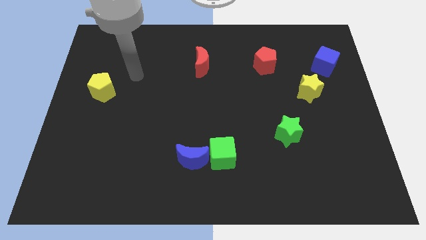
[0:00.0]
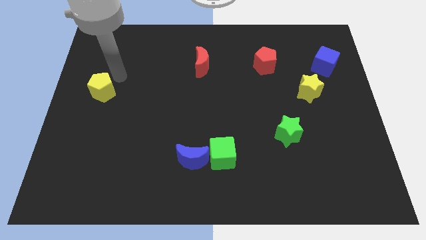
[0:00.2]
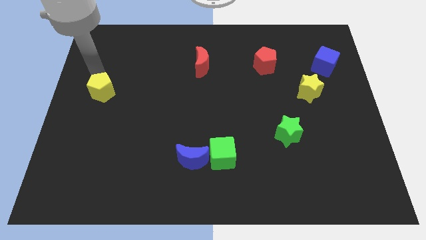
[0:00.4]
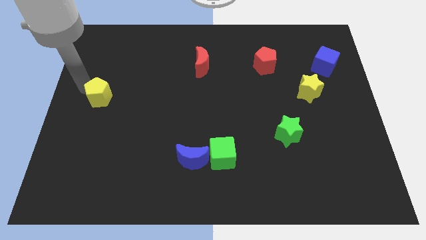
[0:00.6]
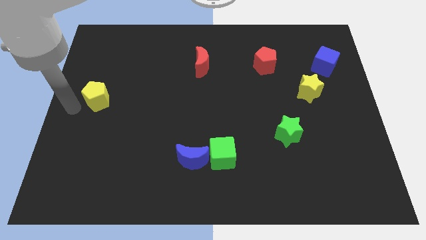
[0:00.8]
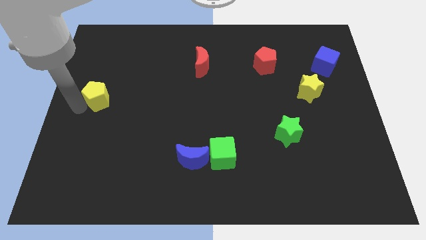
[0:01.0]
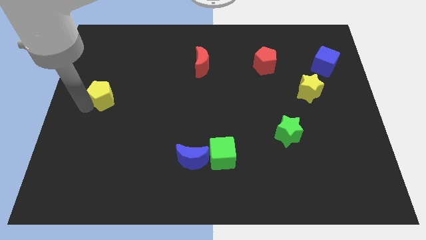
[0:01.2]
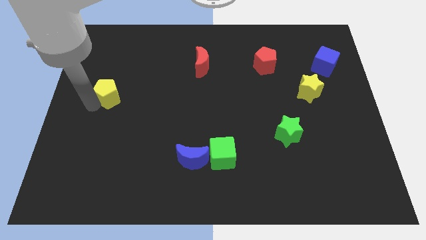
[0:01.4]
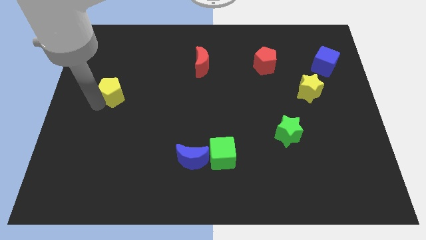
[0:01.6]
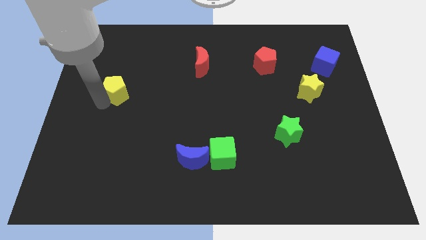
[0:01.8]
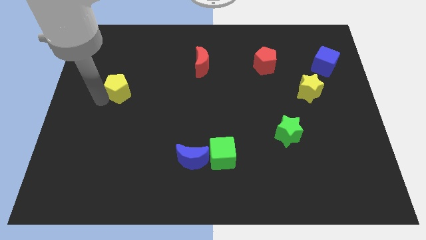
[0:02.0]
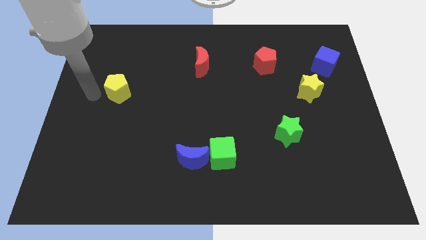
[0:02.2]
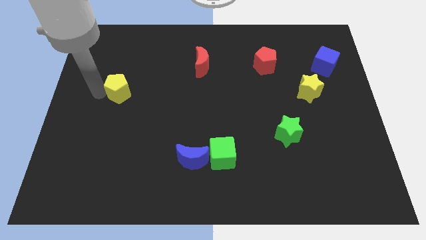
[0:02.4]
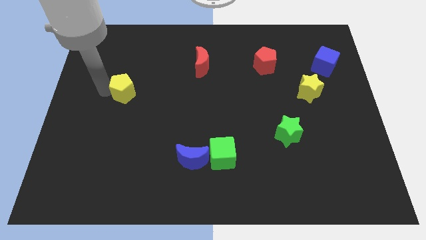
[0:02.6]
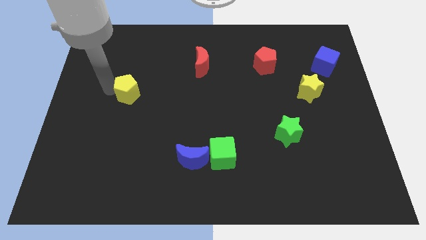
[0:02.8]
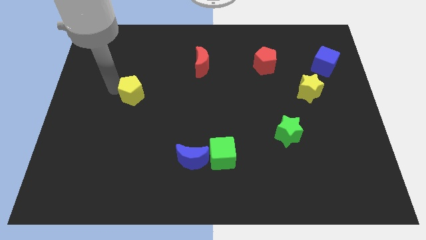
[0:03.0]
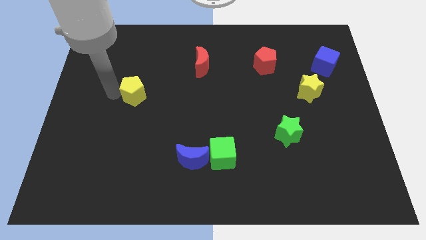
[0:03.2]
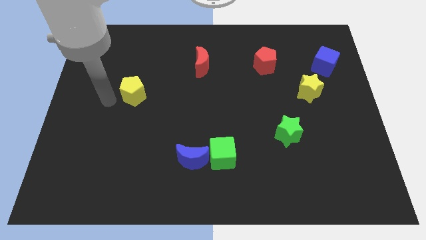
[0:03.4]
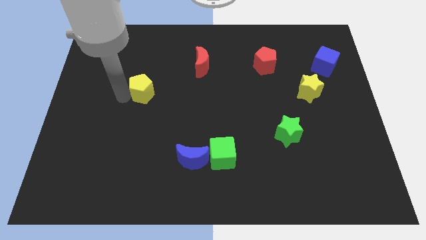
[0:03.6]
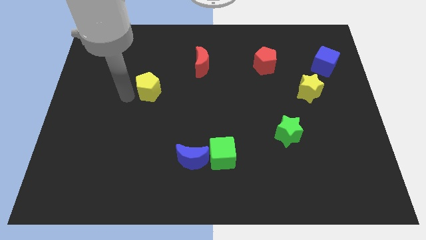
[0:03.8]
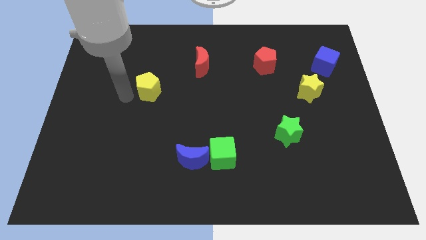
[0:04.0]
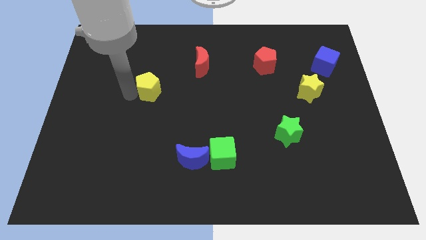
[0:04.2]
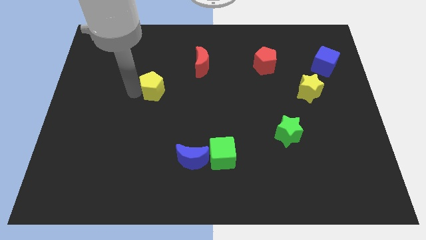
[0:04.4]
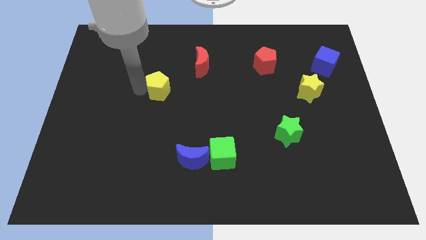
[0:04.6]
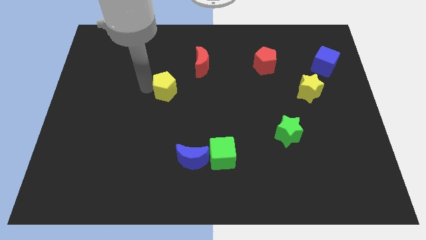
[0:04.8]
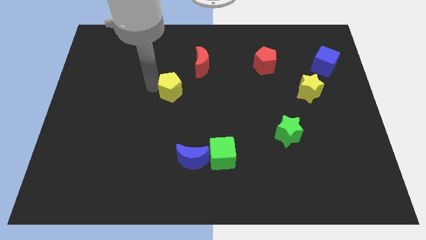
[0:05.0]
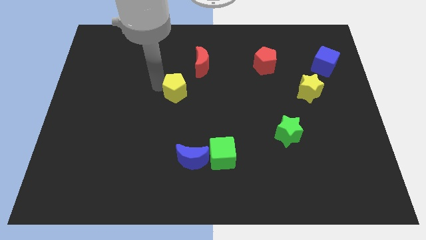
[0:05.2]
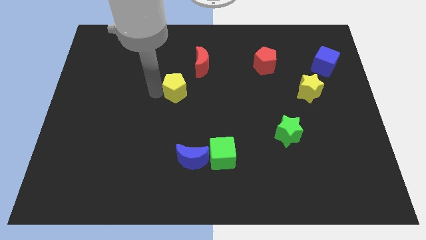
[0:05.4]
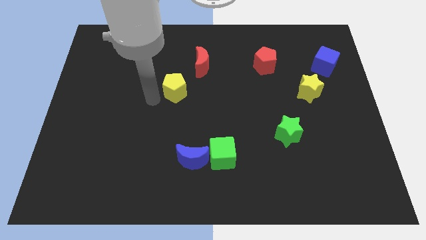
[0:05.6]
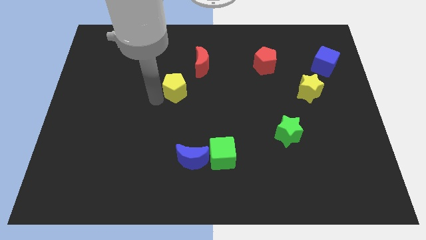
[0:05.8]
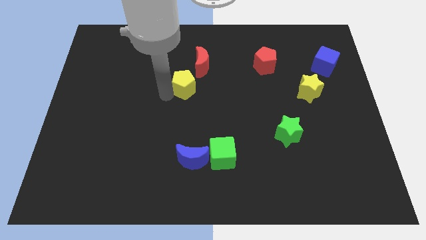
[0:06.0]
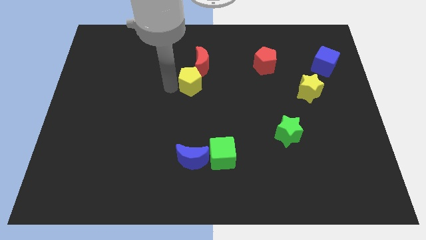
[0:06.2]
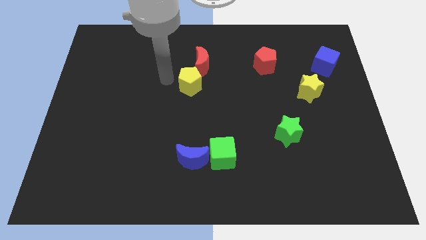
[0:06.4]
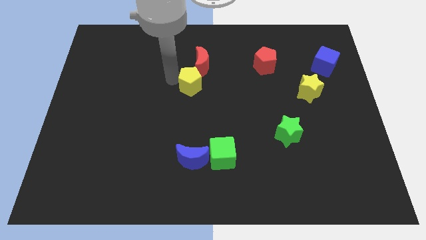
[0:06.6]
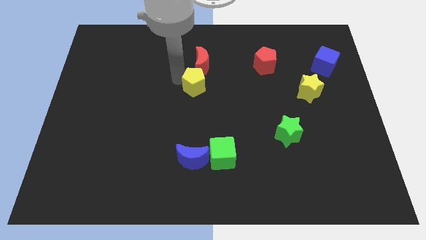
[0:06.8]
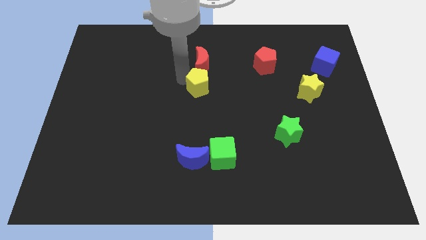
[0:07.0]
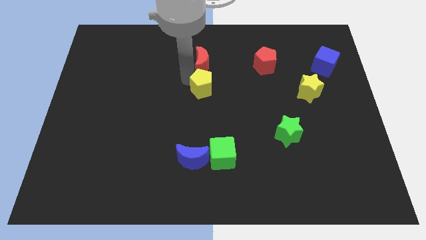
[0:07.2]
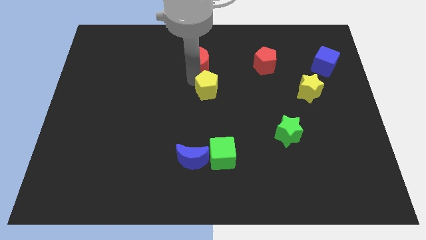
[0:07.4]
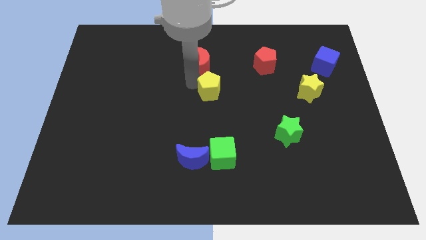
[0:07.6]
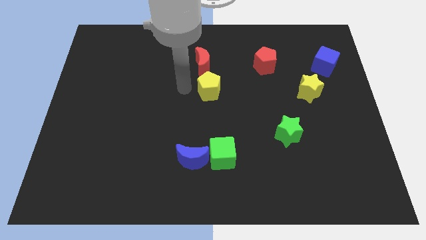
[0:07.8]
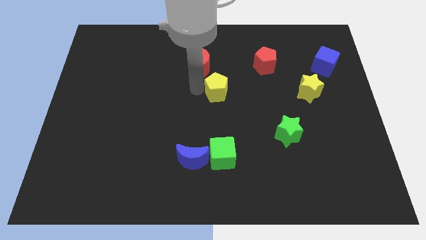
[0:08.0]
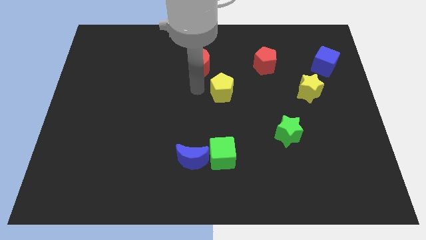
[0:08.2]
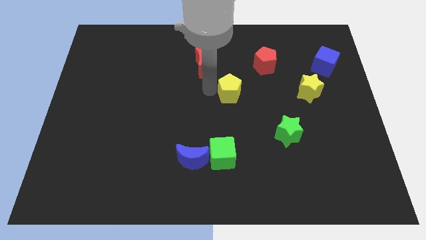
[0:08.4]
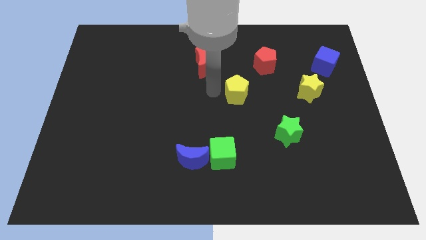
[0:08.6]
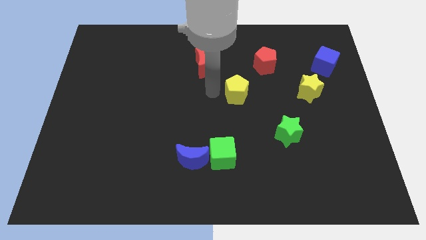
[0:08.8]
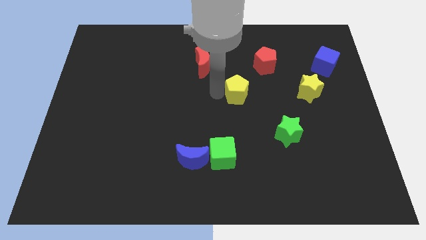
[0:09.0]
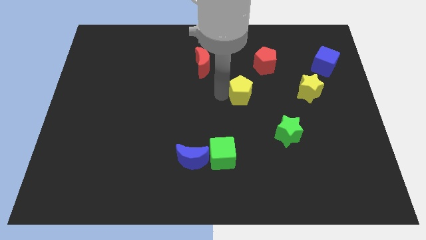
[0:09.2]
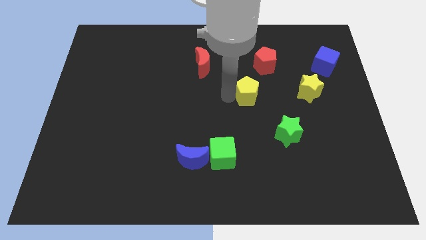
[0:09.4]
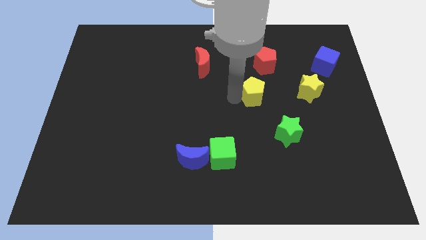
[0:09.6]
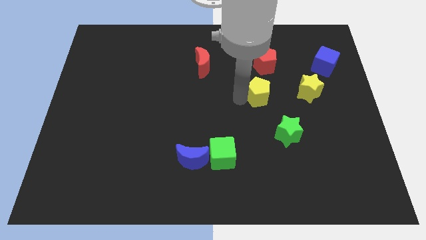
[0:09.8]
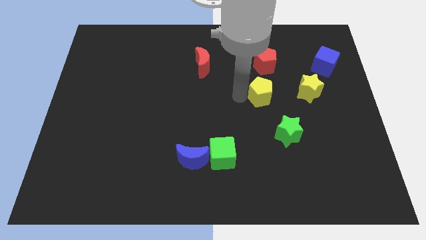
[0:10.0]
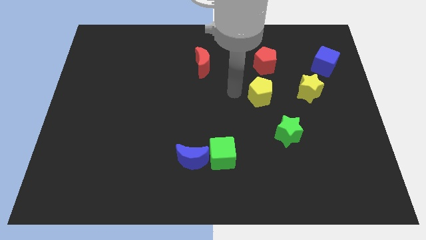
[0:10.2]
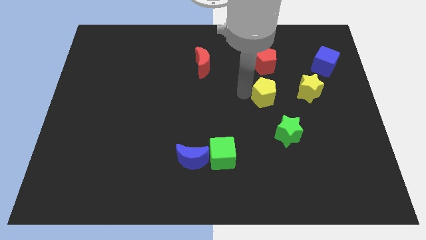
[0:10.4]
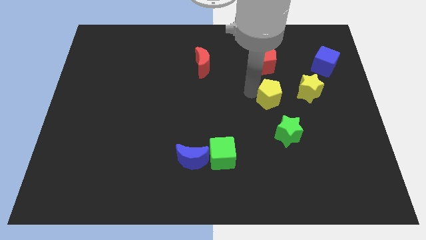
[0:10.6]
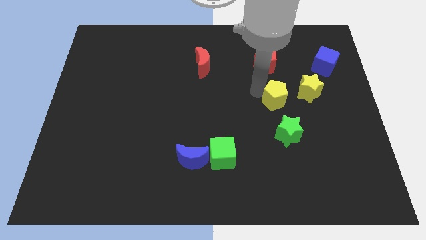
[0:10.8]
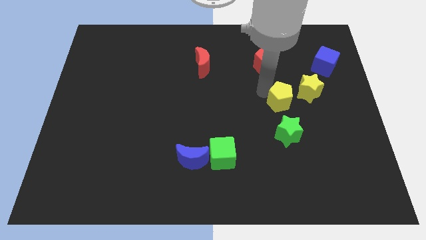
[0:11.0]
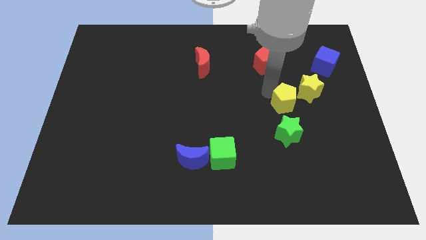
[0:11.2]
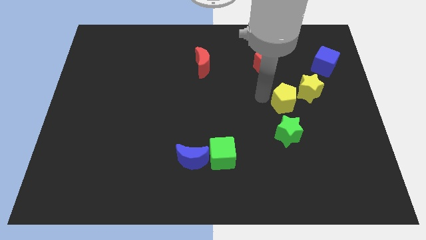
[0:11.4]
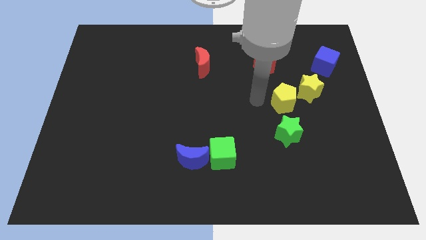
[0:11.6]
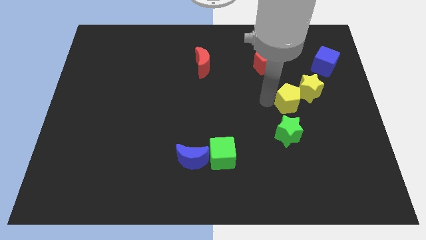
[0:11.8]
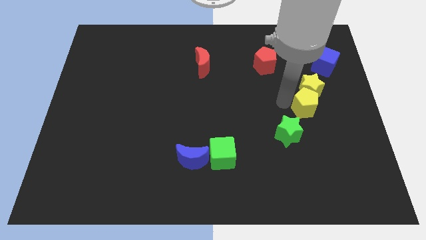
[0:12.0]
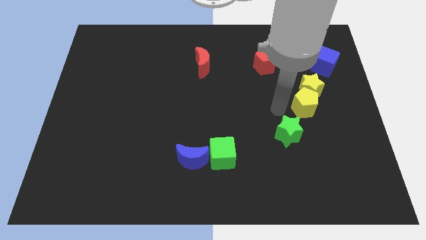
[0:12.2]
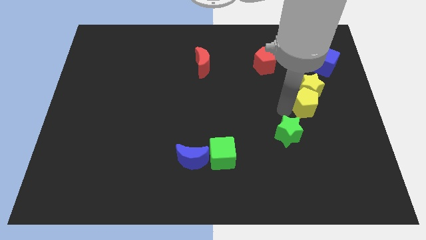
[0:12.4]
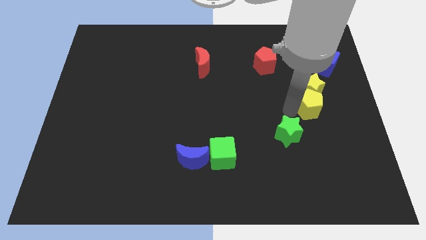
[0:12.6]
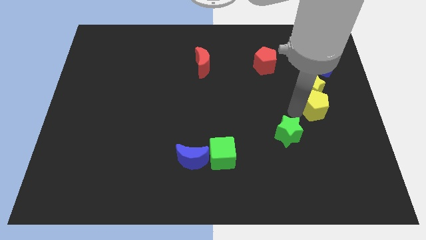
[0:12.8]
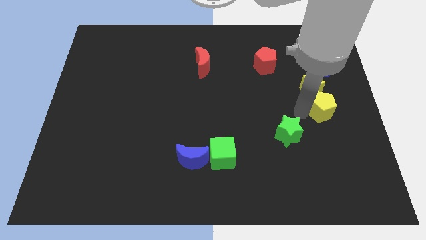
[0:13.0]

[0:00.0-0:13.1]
slide the yellow pentagon to the right side of the board

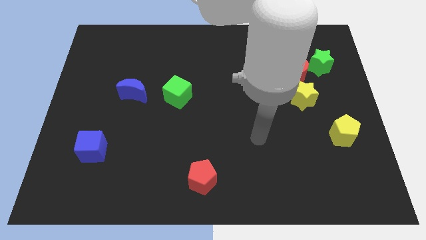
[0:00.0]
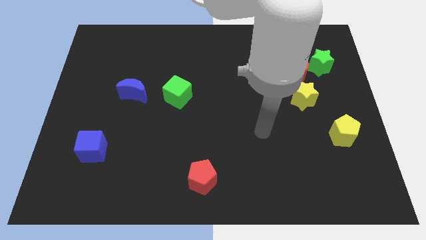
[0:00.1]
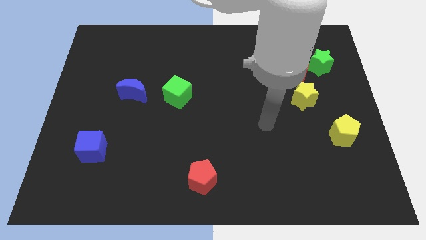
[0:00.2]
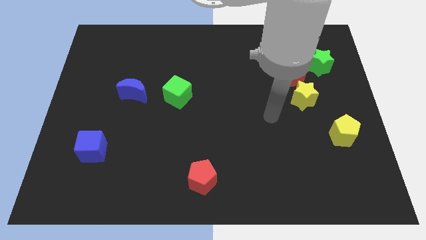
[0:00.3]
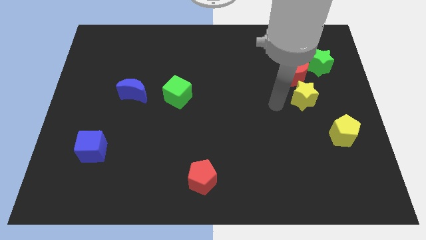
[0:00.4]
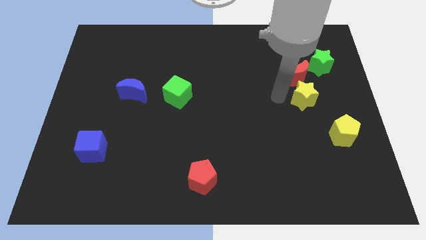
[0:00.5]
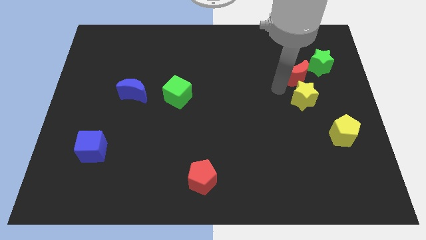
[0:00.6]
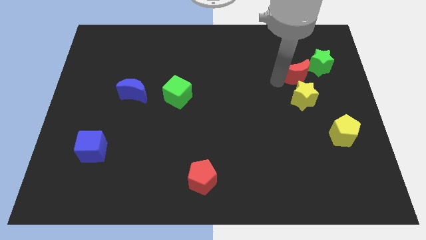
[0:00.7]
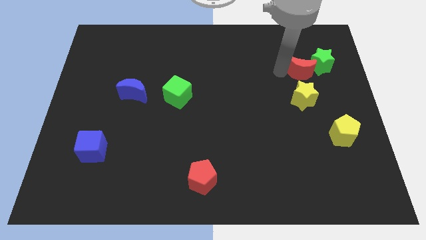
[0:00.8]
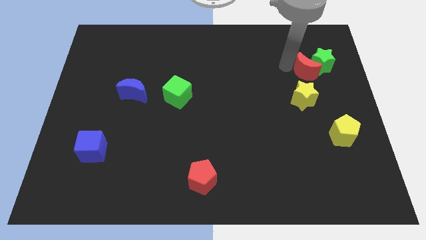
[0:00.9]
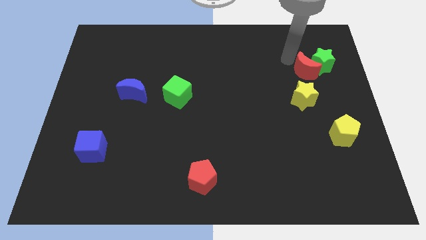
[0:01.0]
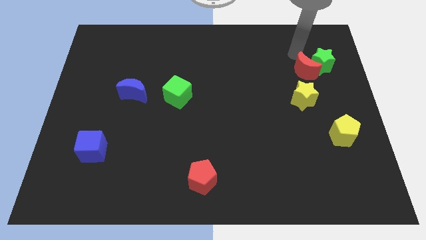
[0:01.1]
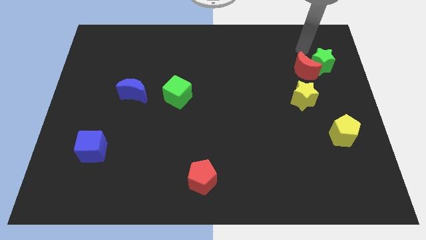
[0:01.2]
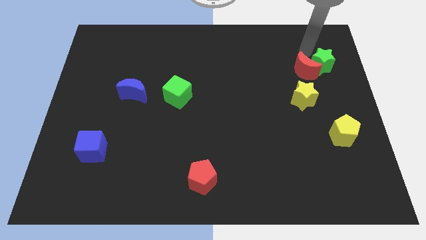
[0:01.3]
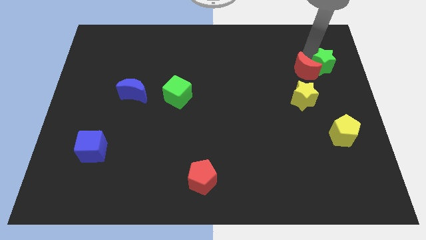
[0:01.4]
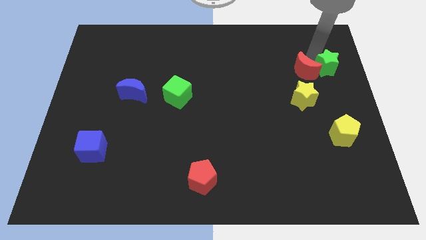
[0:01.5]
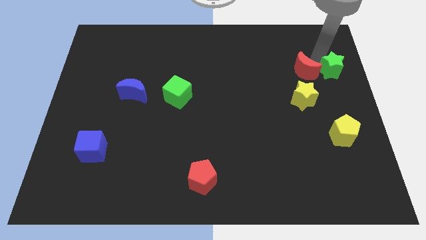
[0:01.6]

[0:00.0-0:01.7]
put the green star to the right side of the board
